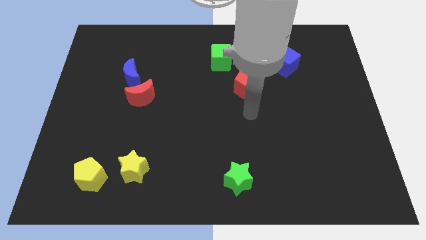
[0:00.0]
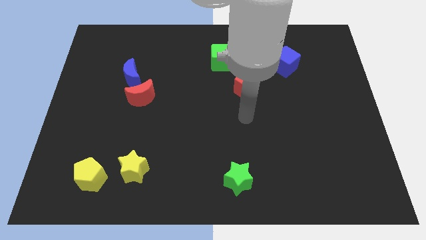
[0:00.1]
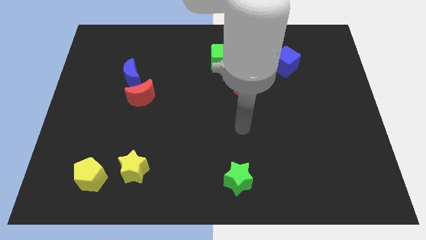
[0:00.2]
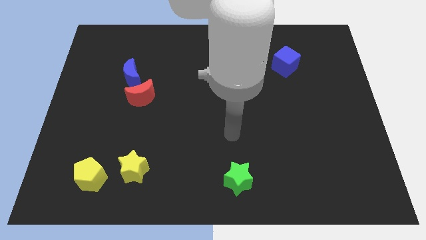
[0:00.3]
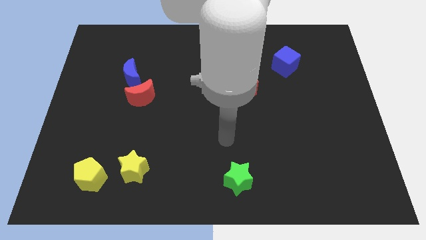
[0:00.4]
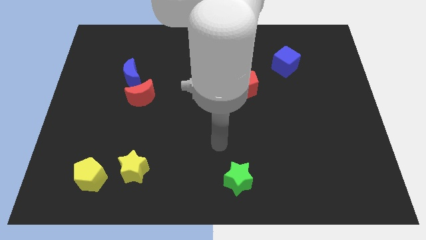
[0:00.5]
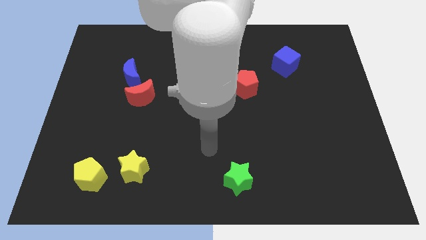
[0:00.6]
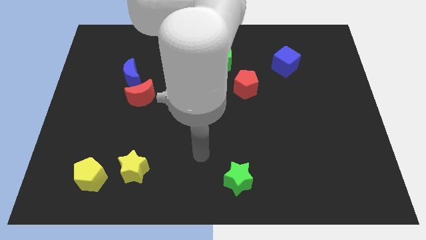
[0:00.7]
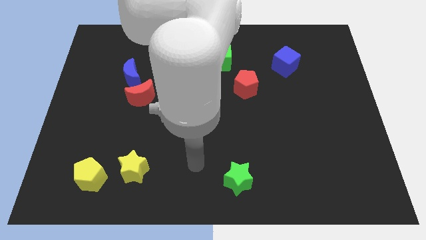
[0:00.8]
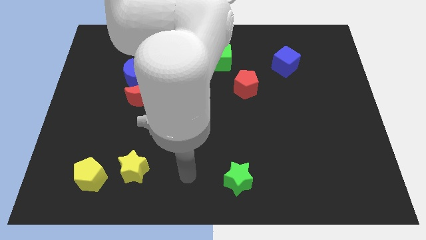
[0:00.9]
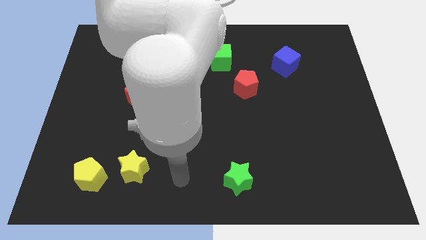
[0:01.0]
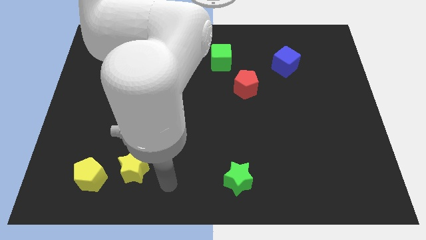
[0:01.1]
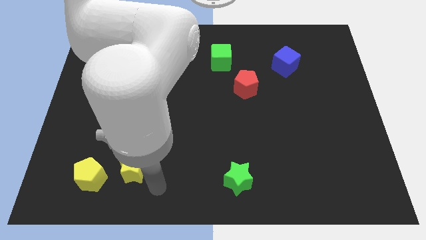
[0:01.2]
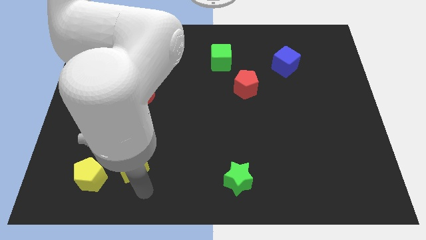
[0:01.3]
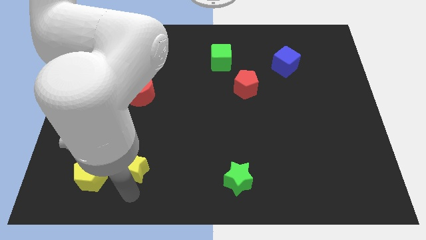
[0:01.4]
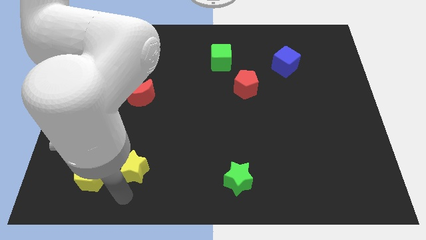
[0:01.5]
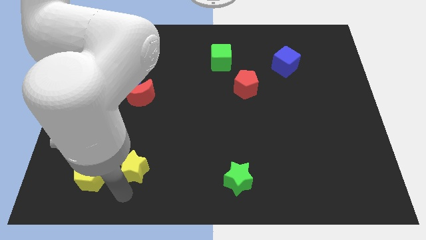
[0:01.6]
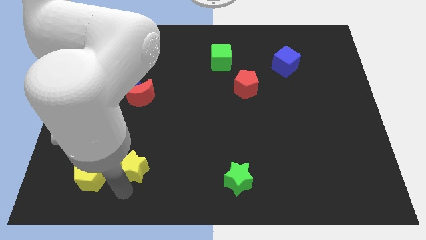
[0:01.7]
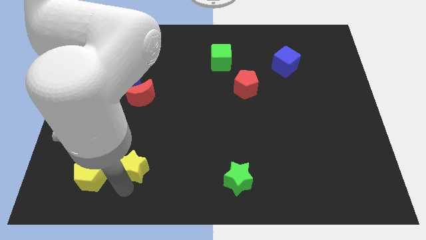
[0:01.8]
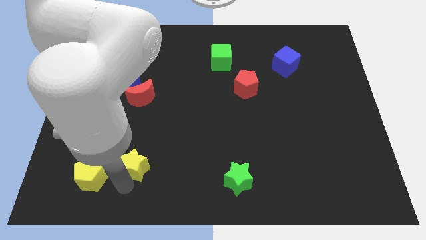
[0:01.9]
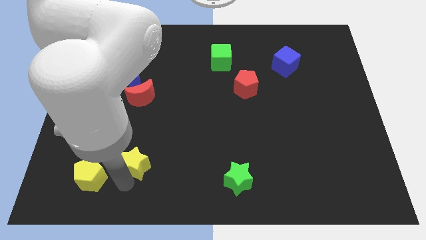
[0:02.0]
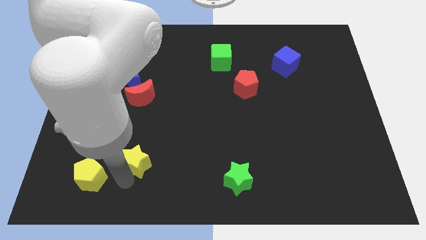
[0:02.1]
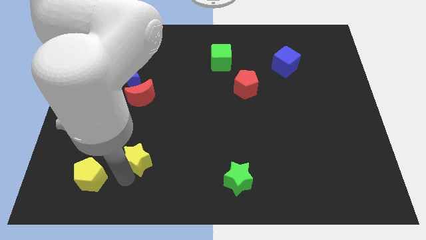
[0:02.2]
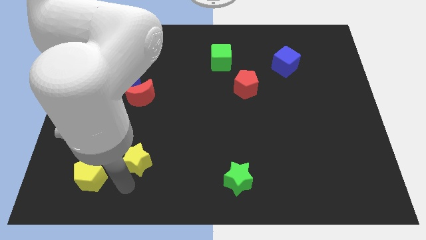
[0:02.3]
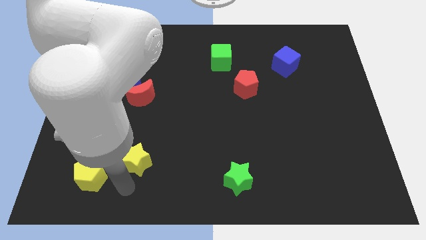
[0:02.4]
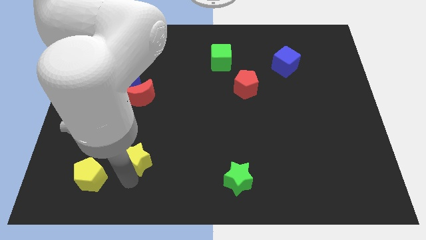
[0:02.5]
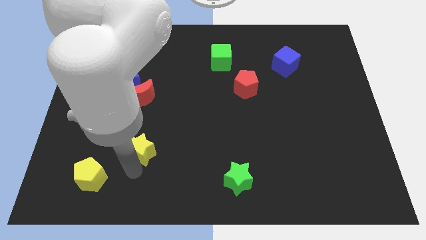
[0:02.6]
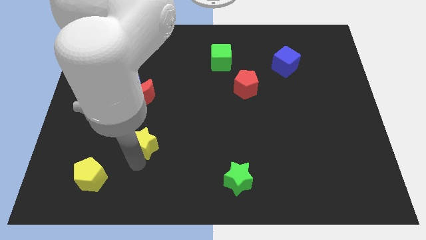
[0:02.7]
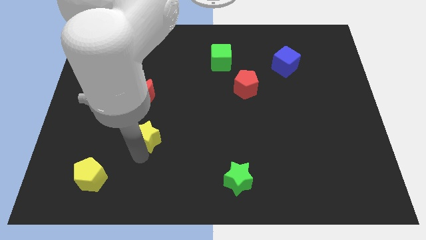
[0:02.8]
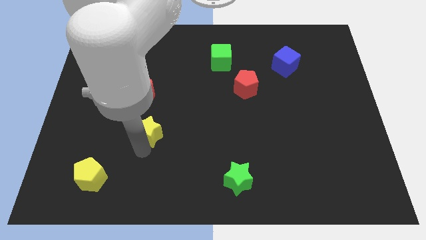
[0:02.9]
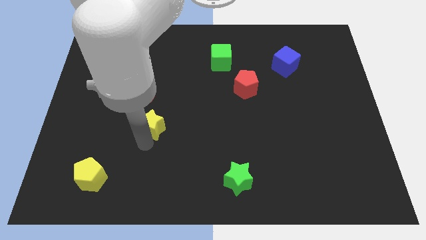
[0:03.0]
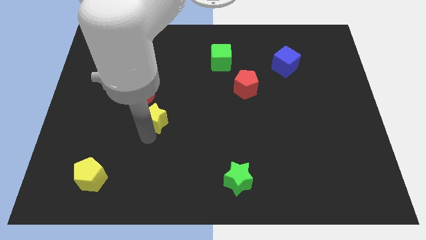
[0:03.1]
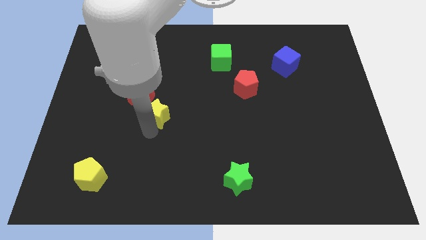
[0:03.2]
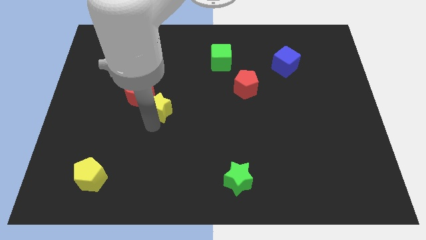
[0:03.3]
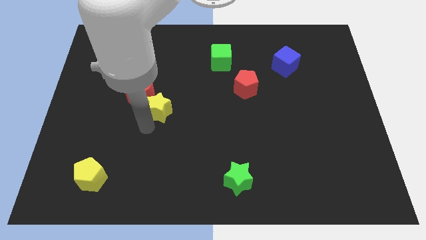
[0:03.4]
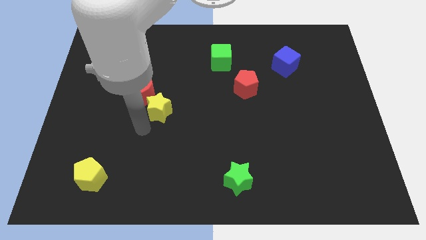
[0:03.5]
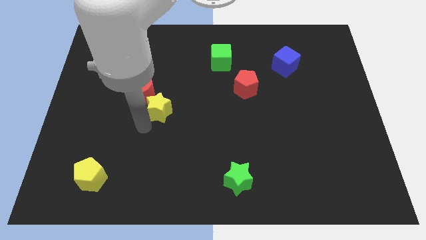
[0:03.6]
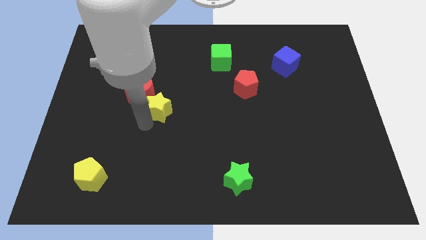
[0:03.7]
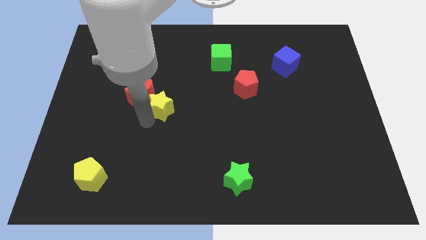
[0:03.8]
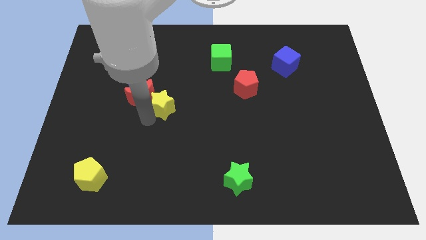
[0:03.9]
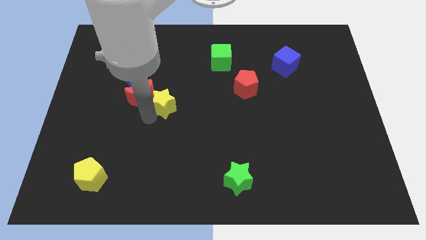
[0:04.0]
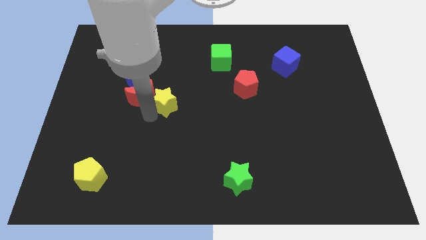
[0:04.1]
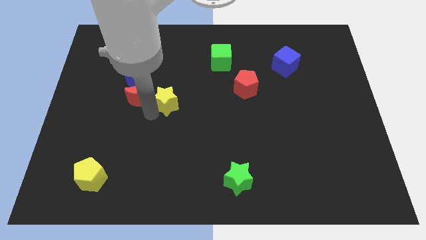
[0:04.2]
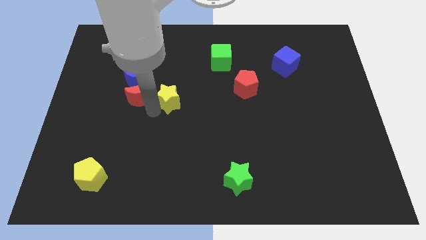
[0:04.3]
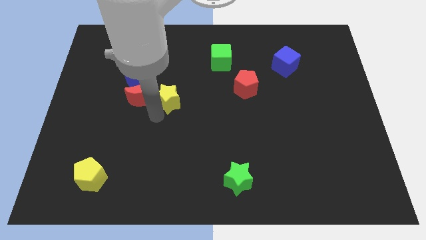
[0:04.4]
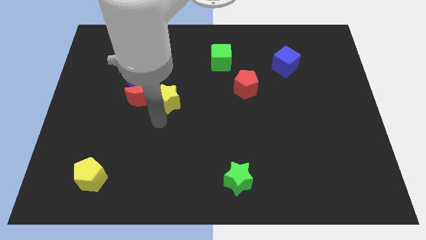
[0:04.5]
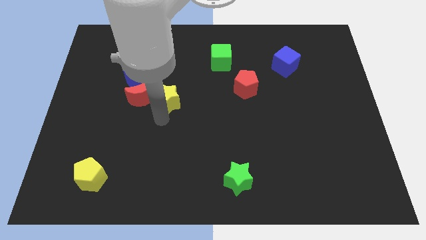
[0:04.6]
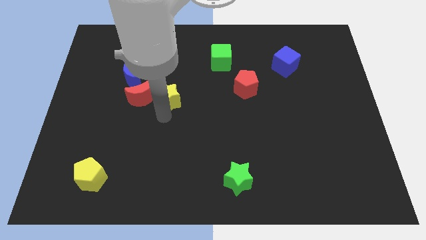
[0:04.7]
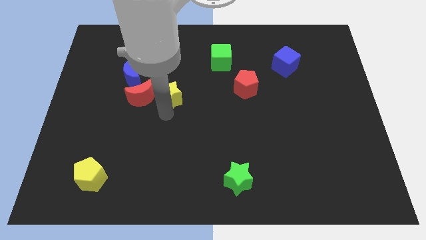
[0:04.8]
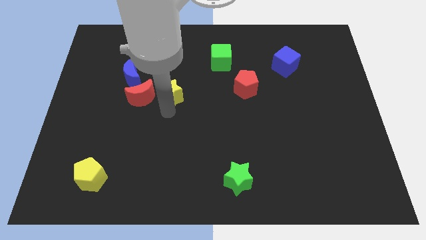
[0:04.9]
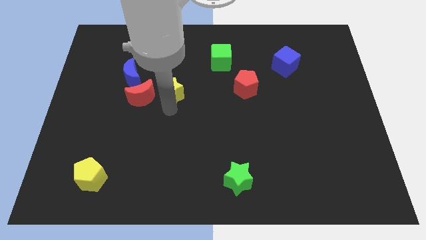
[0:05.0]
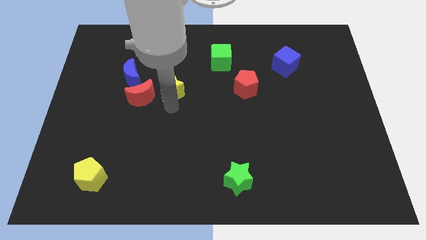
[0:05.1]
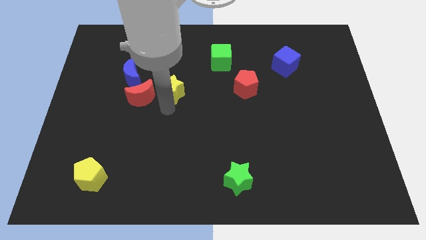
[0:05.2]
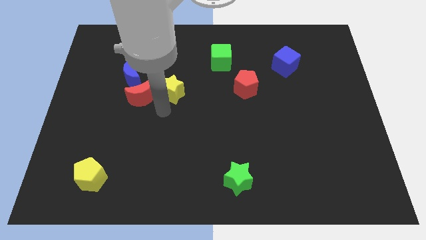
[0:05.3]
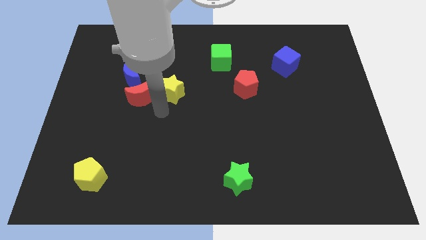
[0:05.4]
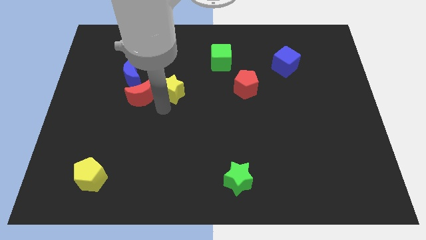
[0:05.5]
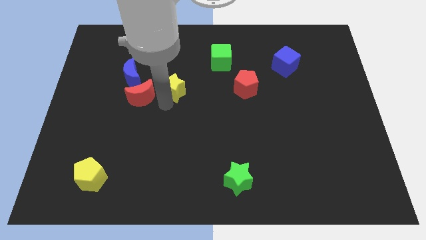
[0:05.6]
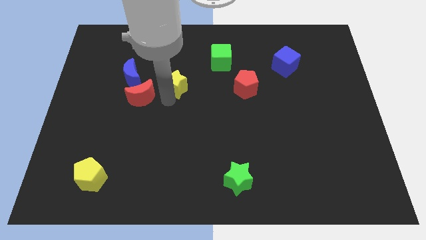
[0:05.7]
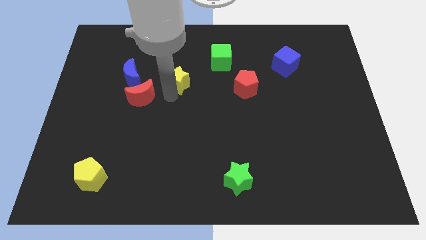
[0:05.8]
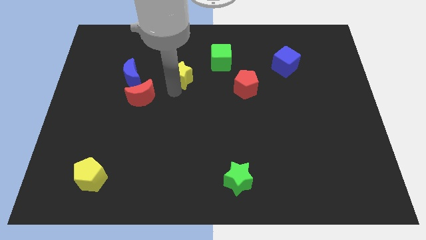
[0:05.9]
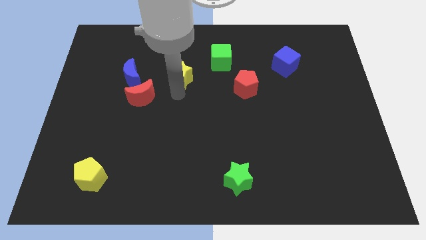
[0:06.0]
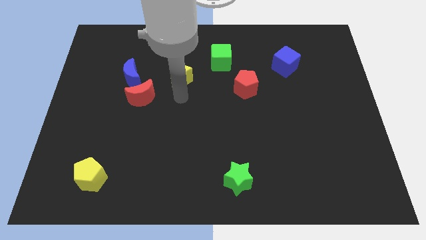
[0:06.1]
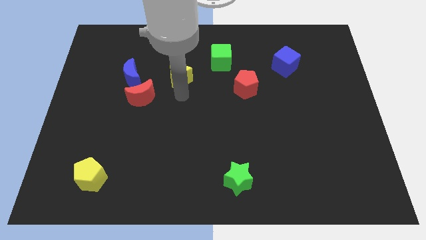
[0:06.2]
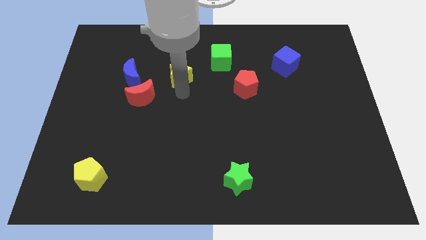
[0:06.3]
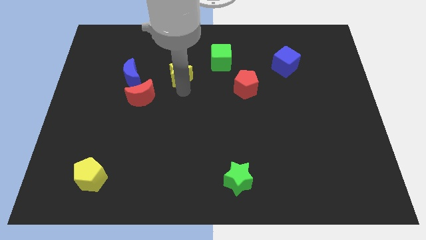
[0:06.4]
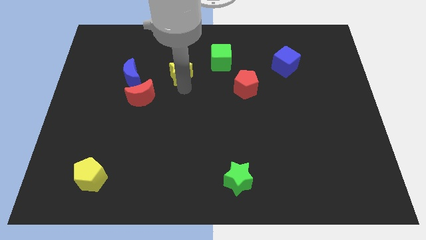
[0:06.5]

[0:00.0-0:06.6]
put the yellow star to the left of the green cube

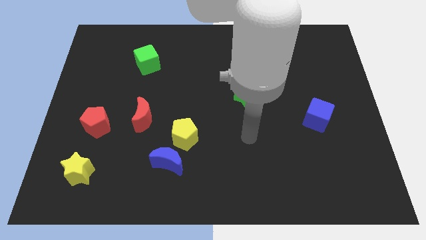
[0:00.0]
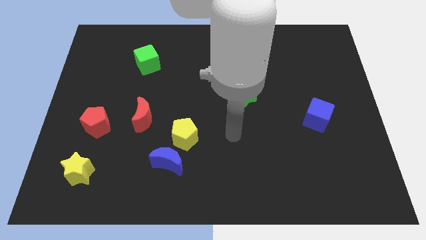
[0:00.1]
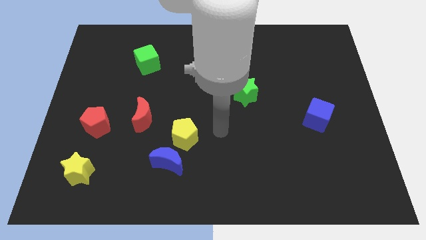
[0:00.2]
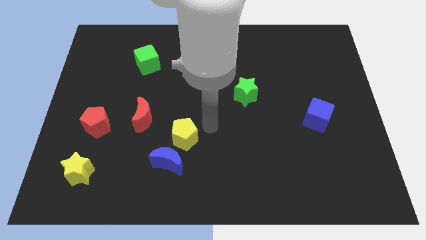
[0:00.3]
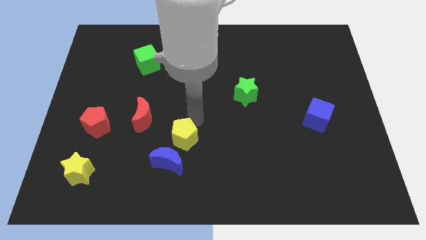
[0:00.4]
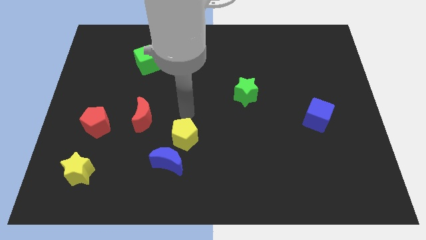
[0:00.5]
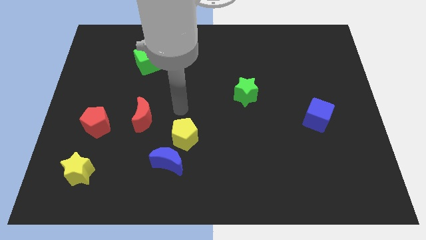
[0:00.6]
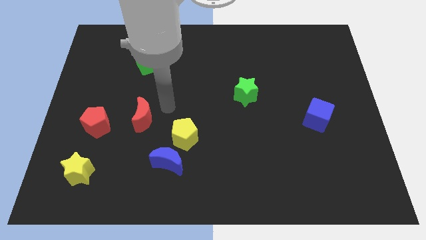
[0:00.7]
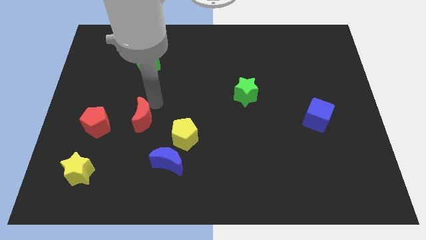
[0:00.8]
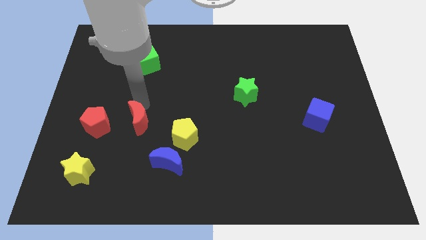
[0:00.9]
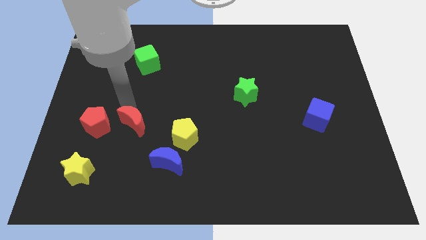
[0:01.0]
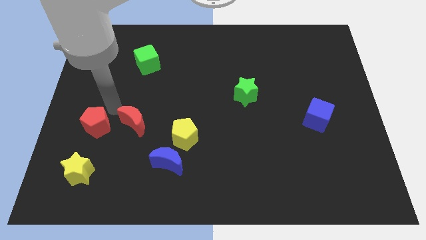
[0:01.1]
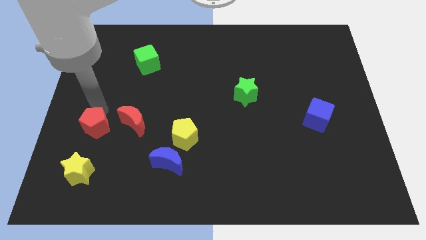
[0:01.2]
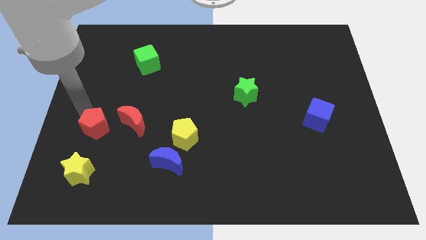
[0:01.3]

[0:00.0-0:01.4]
put the red pentagon to the bottom left of the red moon

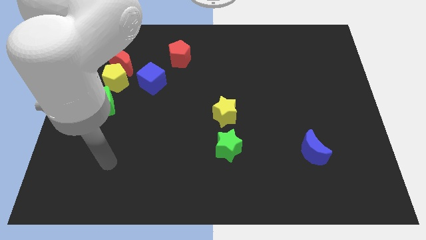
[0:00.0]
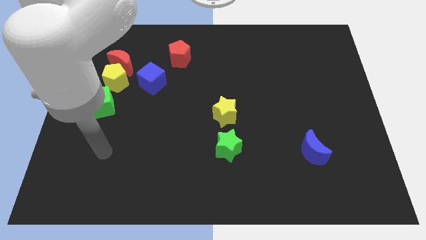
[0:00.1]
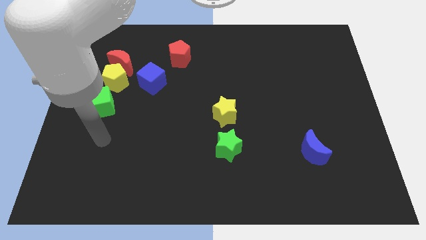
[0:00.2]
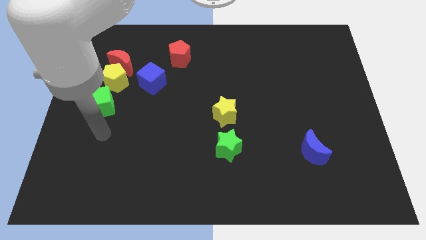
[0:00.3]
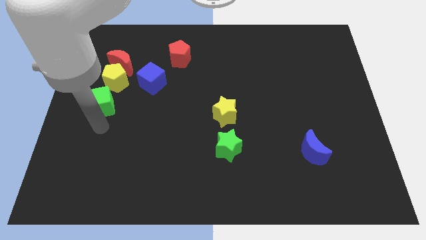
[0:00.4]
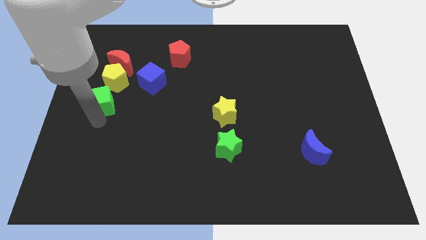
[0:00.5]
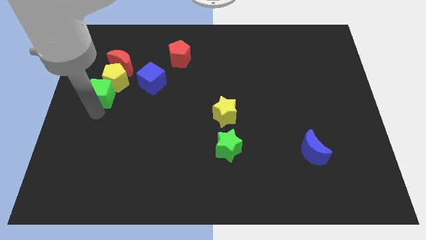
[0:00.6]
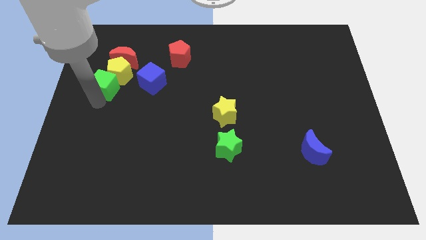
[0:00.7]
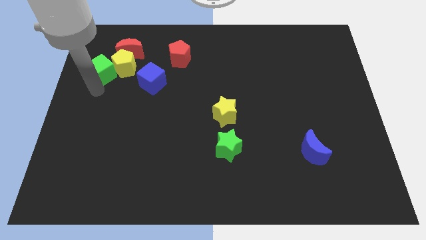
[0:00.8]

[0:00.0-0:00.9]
put the yellow pentagon just left of the red pentagon
